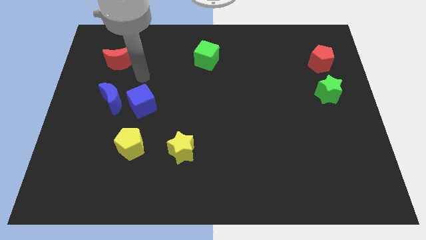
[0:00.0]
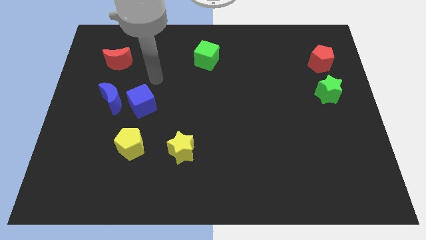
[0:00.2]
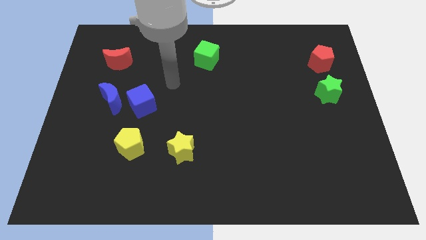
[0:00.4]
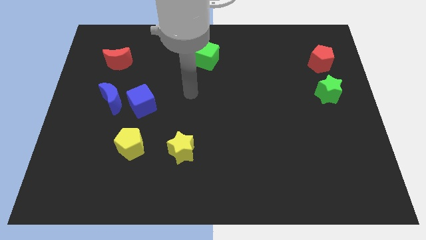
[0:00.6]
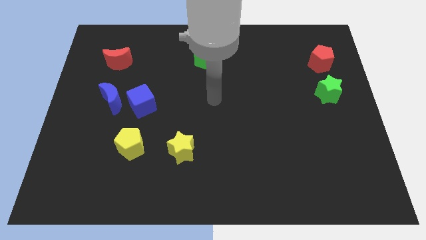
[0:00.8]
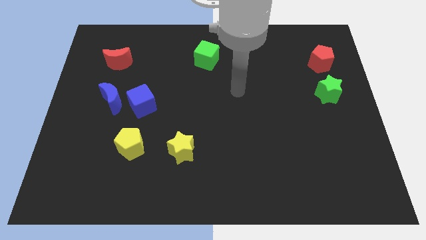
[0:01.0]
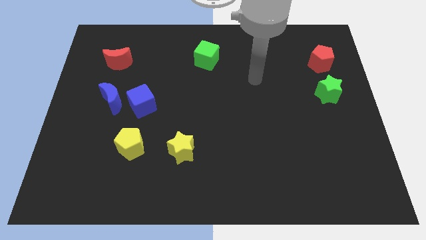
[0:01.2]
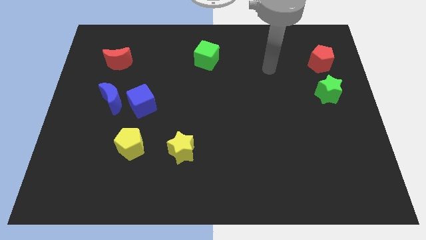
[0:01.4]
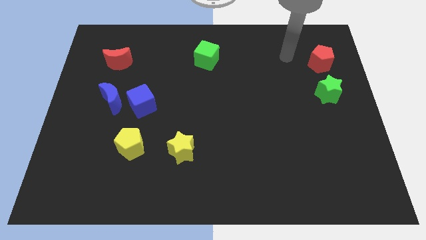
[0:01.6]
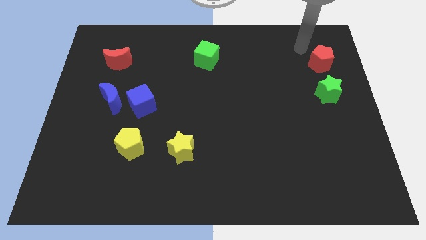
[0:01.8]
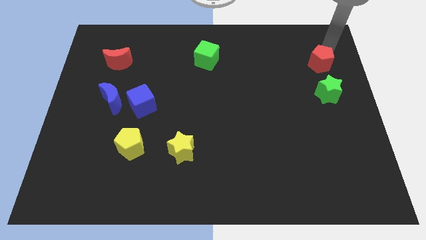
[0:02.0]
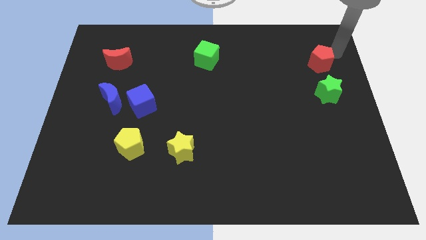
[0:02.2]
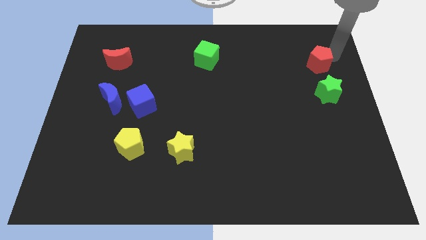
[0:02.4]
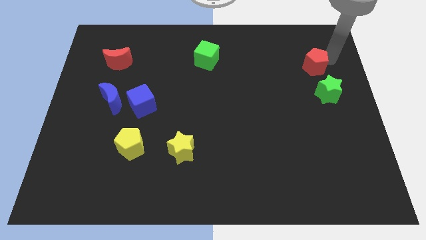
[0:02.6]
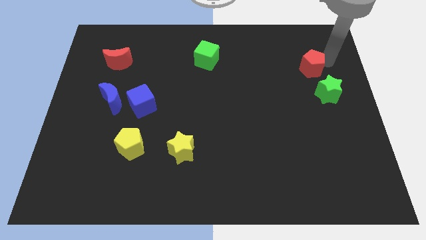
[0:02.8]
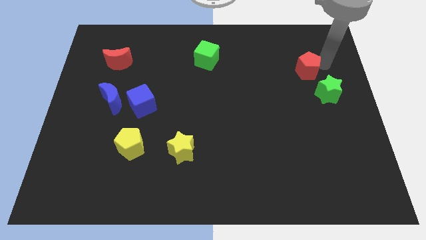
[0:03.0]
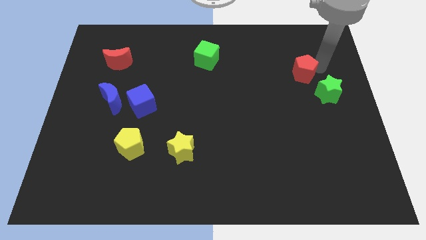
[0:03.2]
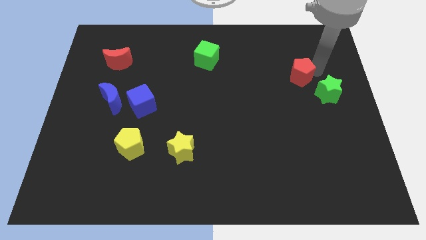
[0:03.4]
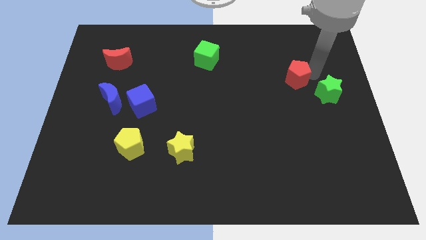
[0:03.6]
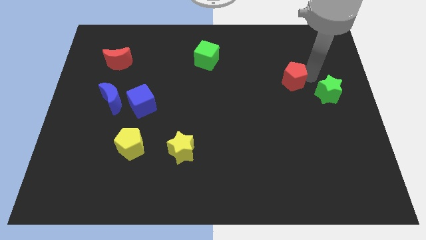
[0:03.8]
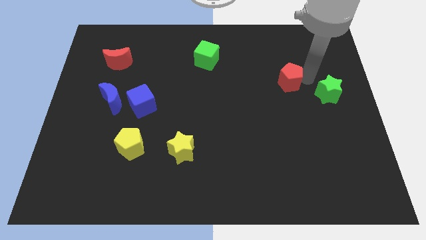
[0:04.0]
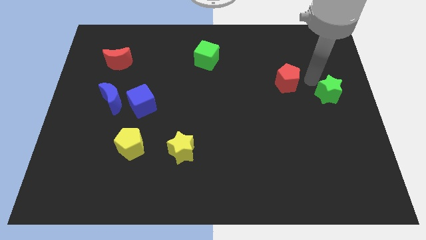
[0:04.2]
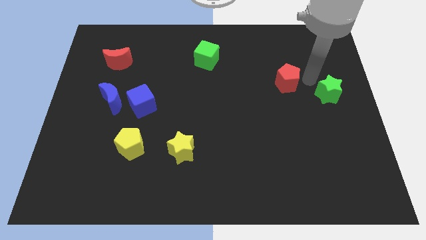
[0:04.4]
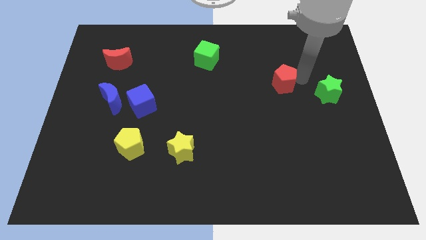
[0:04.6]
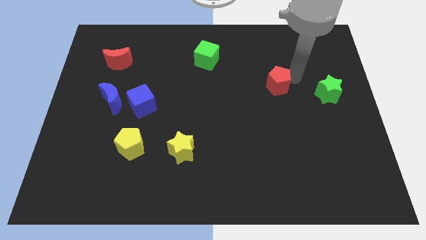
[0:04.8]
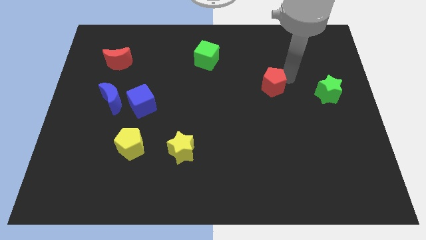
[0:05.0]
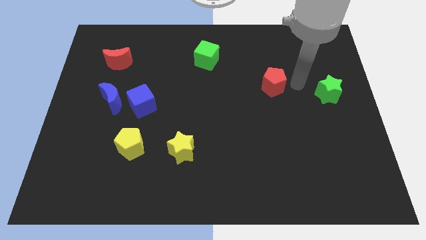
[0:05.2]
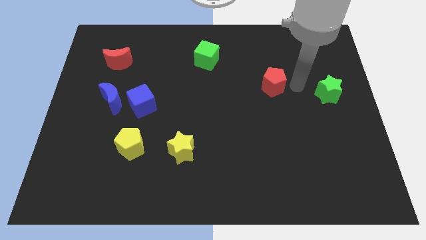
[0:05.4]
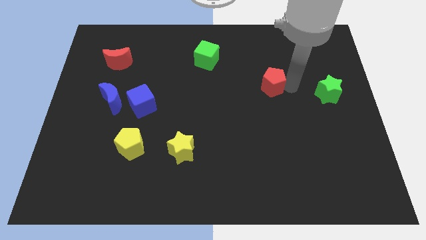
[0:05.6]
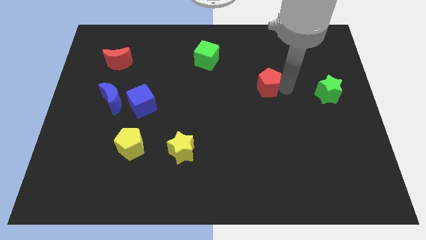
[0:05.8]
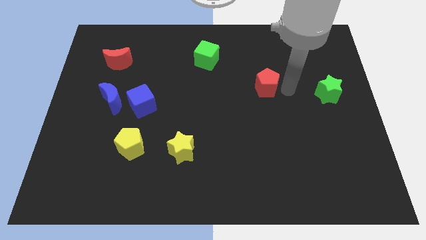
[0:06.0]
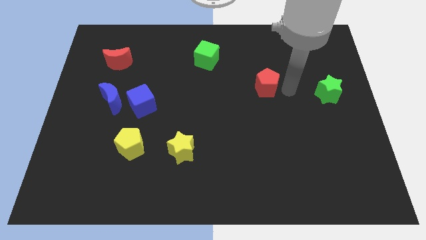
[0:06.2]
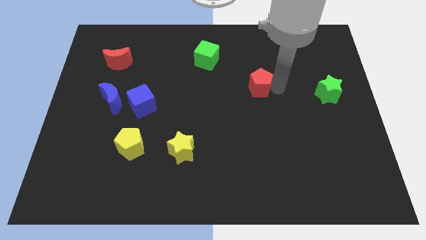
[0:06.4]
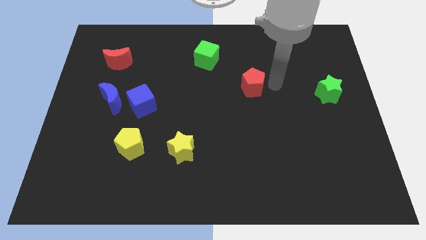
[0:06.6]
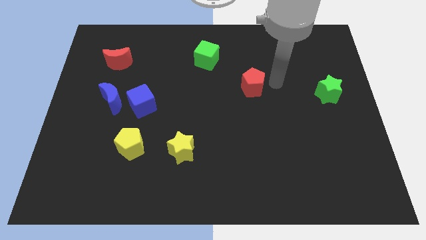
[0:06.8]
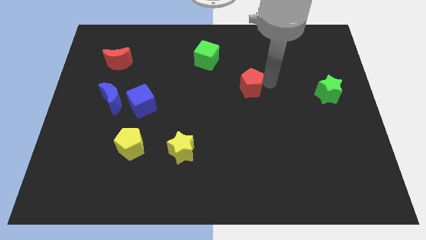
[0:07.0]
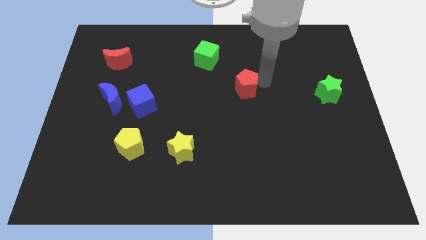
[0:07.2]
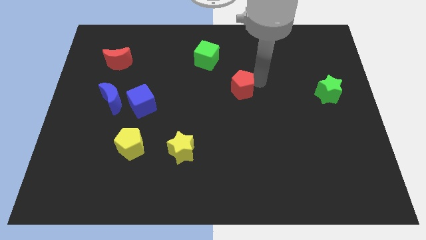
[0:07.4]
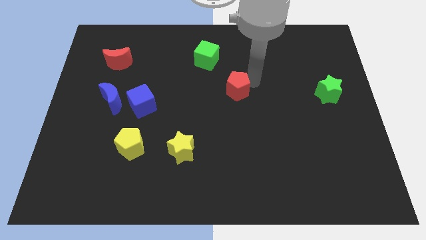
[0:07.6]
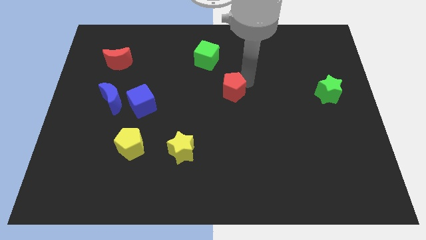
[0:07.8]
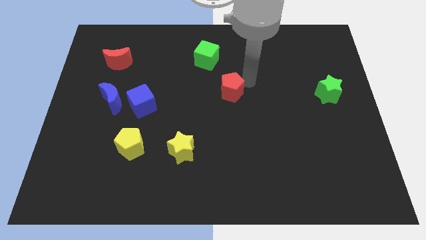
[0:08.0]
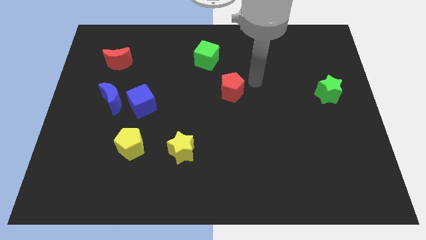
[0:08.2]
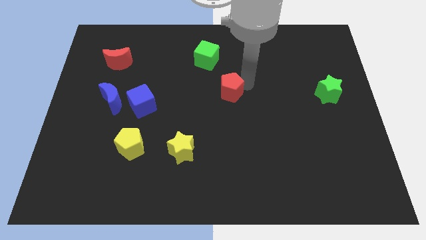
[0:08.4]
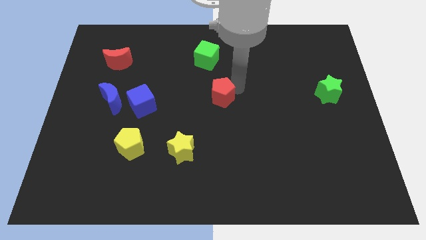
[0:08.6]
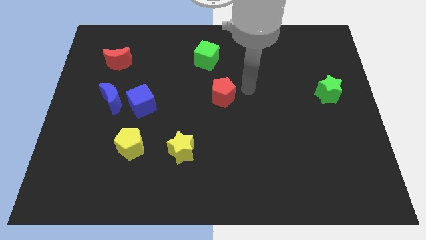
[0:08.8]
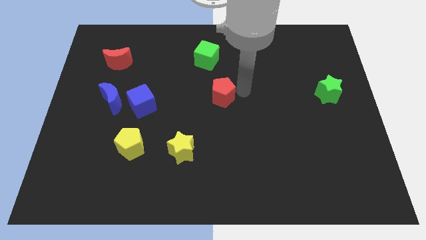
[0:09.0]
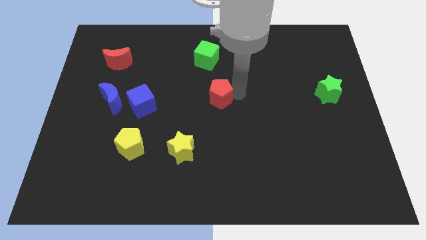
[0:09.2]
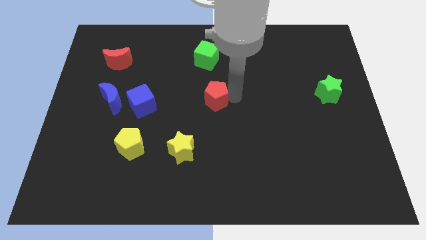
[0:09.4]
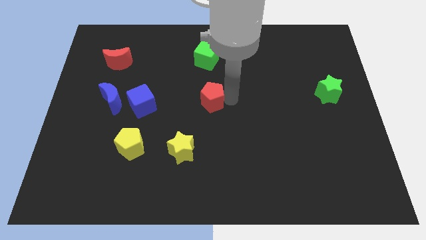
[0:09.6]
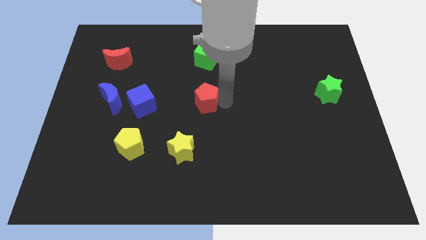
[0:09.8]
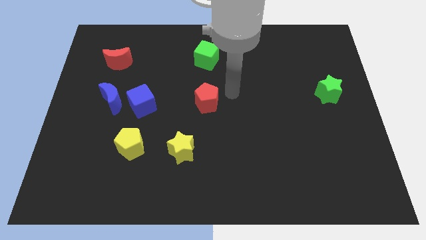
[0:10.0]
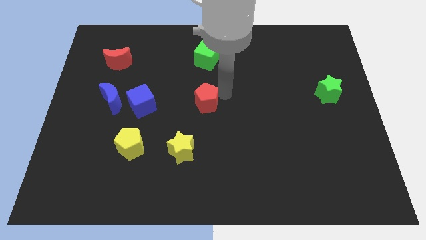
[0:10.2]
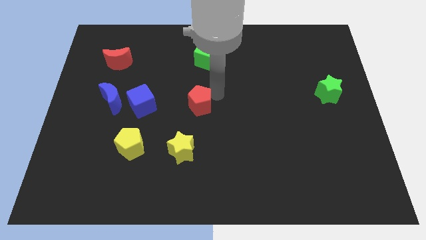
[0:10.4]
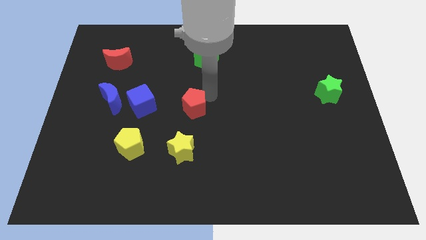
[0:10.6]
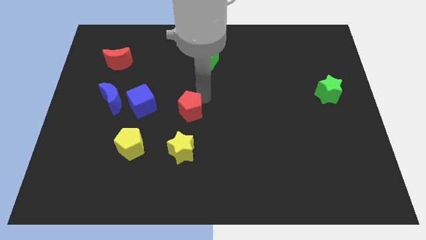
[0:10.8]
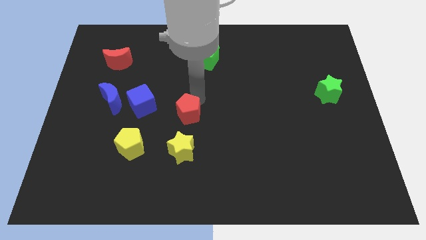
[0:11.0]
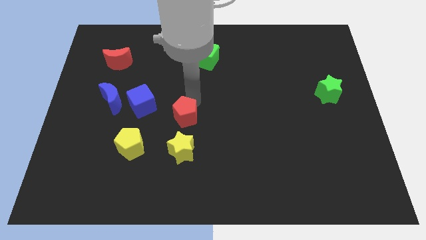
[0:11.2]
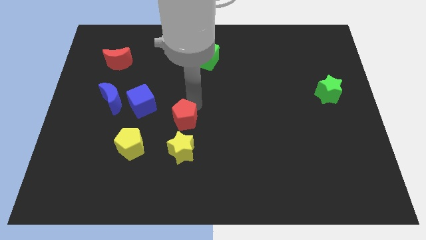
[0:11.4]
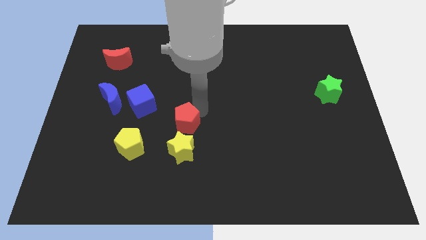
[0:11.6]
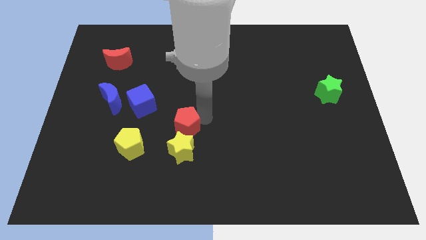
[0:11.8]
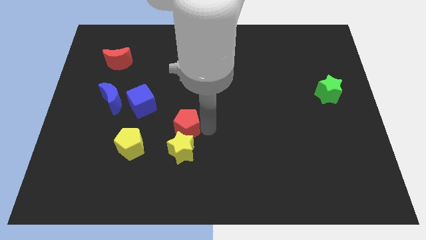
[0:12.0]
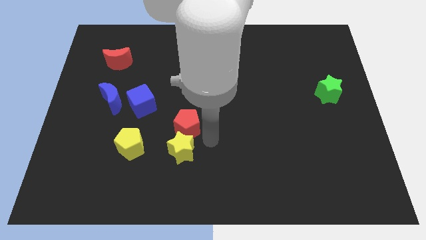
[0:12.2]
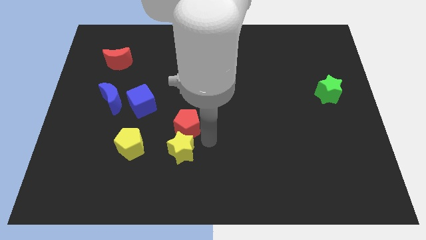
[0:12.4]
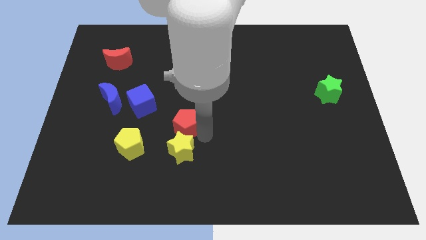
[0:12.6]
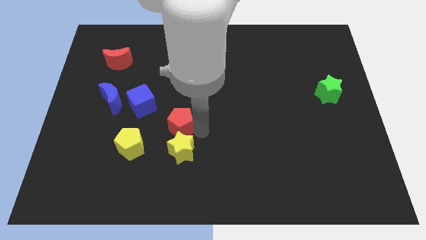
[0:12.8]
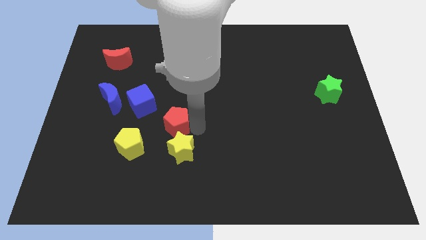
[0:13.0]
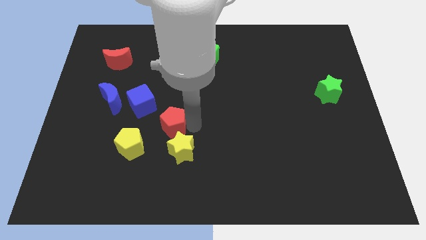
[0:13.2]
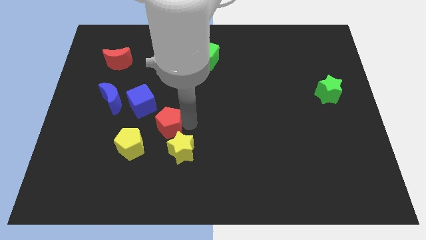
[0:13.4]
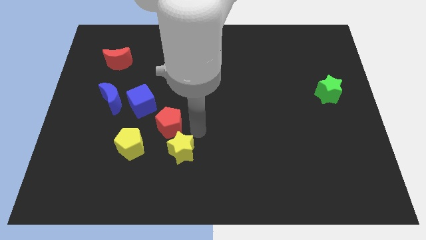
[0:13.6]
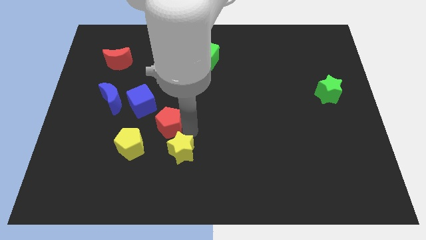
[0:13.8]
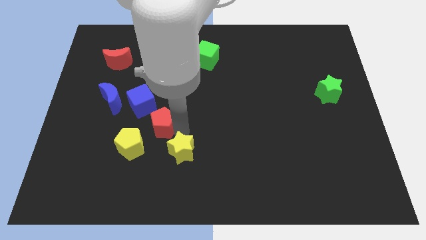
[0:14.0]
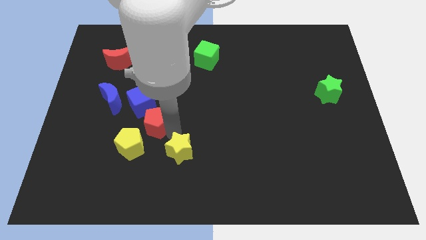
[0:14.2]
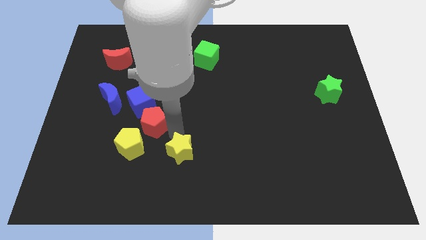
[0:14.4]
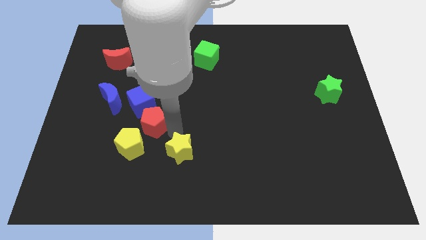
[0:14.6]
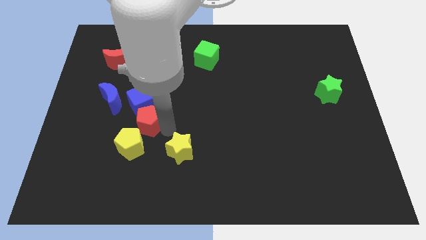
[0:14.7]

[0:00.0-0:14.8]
put the red pentagon diagonally down and to the right of the blue moon
